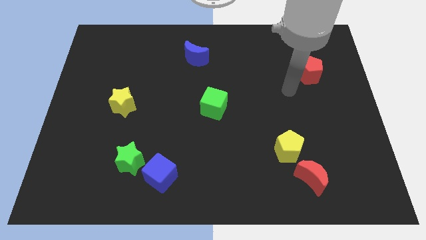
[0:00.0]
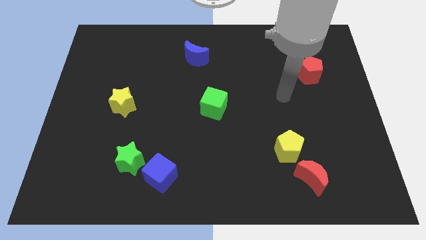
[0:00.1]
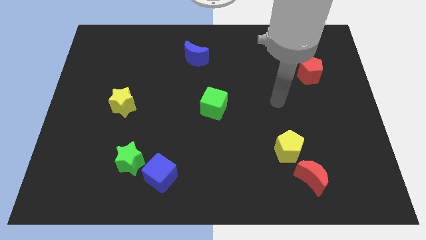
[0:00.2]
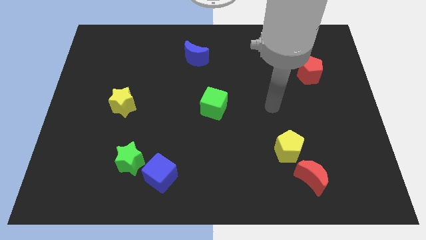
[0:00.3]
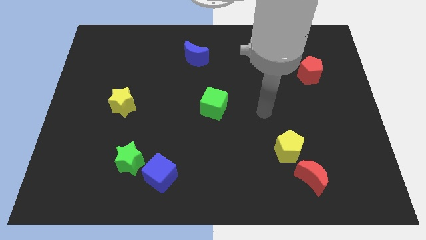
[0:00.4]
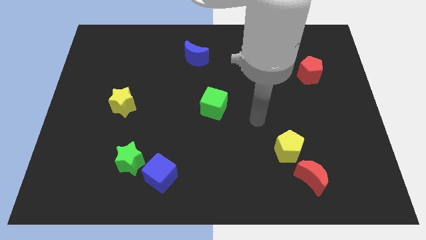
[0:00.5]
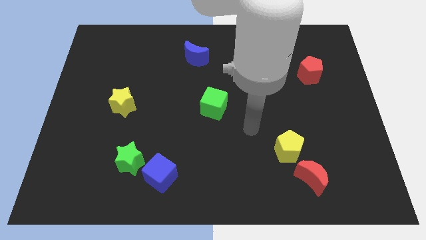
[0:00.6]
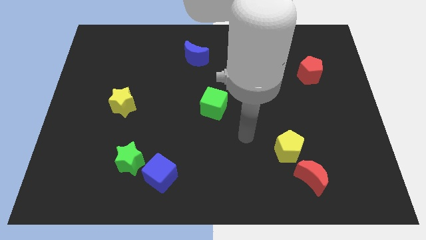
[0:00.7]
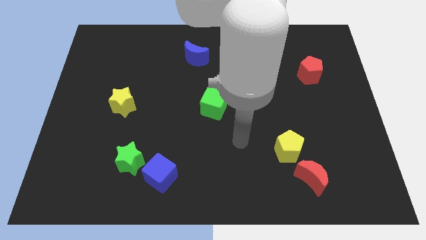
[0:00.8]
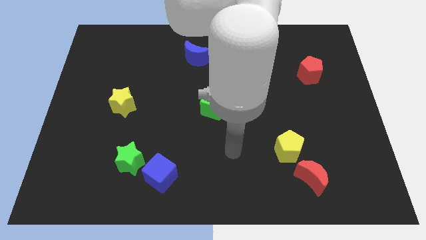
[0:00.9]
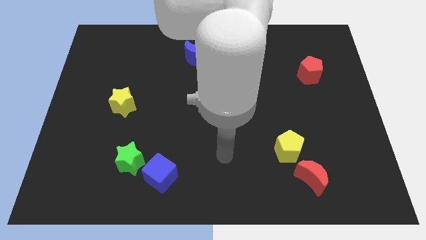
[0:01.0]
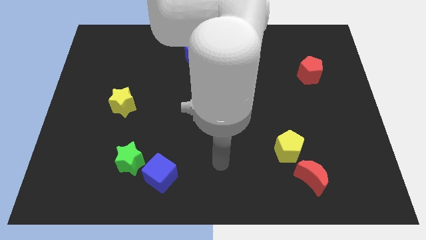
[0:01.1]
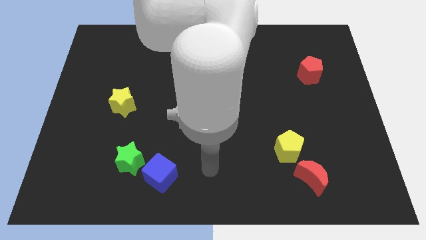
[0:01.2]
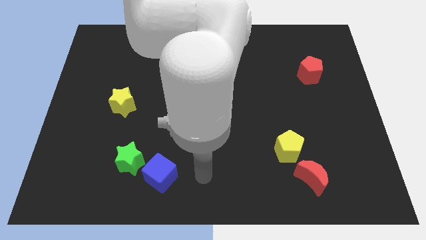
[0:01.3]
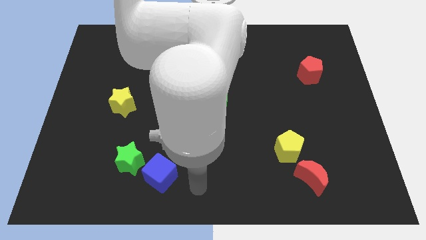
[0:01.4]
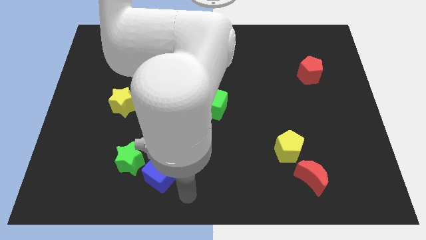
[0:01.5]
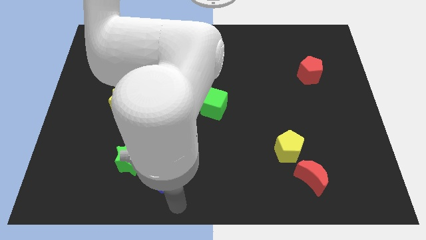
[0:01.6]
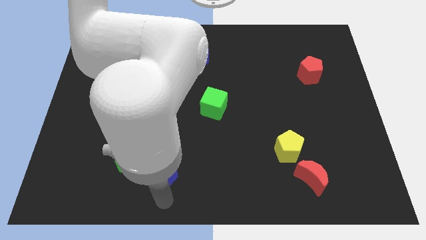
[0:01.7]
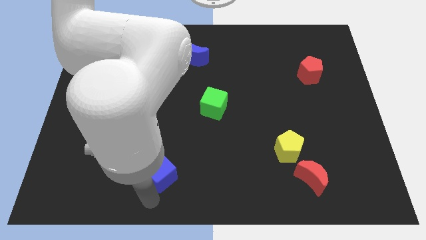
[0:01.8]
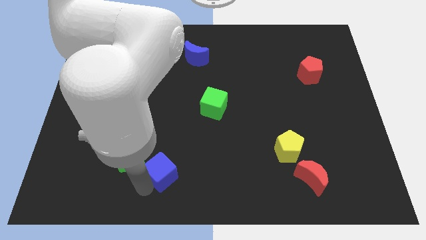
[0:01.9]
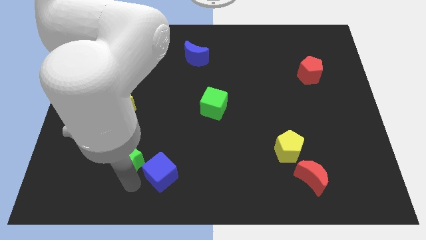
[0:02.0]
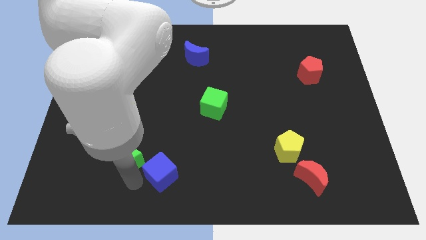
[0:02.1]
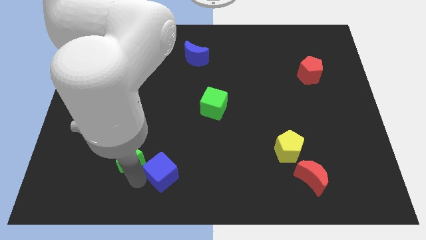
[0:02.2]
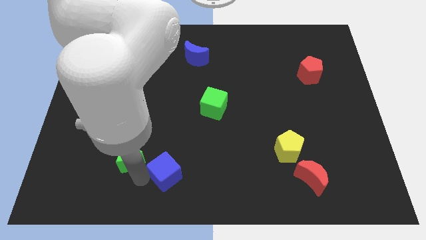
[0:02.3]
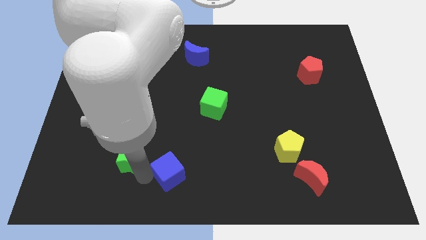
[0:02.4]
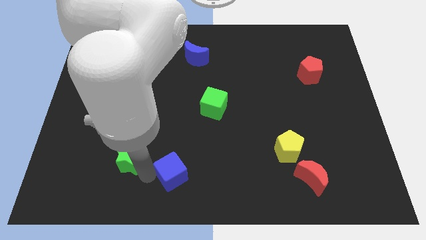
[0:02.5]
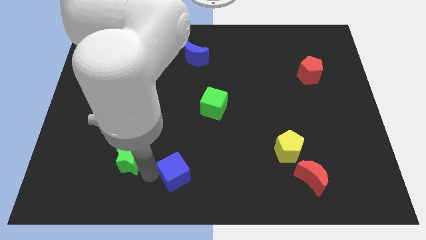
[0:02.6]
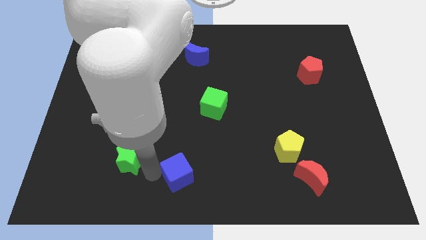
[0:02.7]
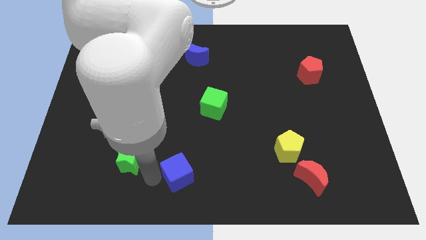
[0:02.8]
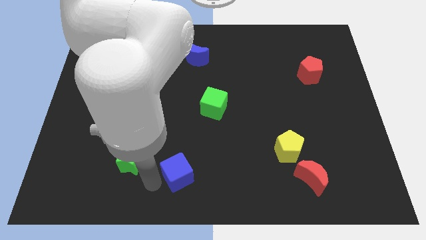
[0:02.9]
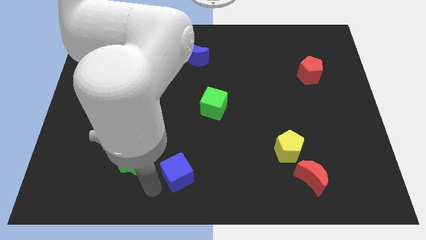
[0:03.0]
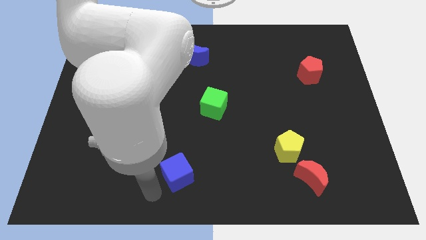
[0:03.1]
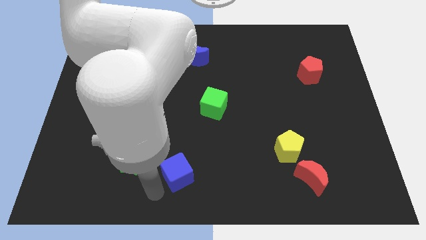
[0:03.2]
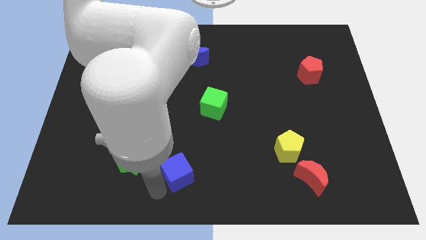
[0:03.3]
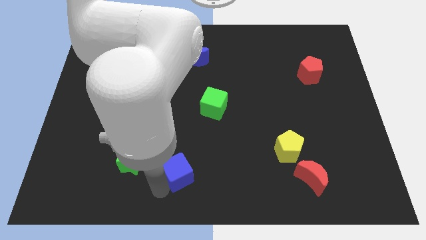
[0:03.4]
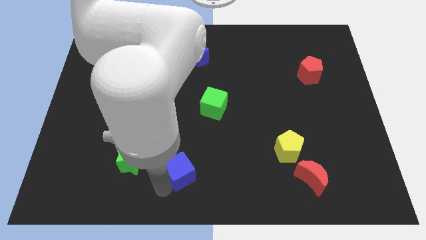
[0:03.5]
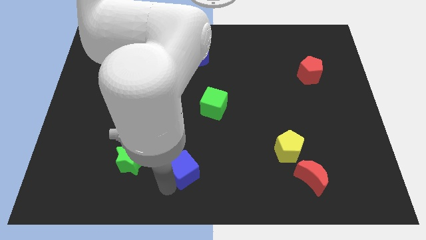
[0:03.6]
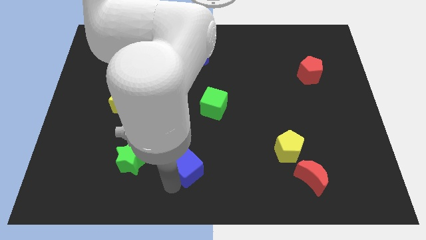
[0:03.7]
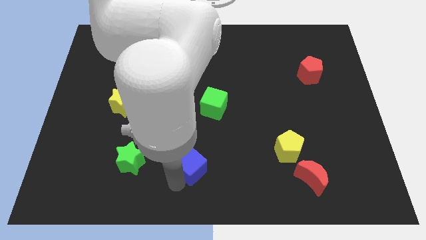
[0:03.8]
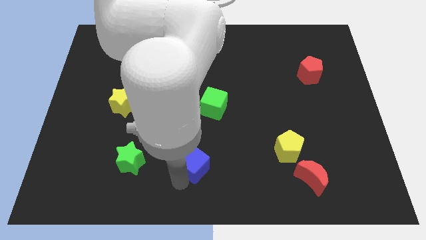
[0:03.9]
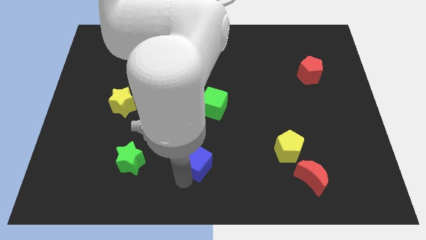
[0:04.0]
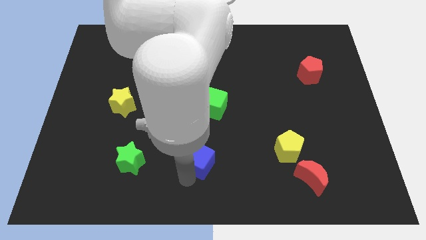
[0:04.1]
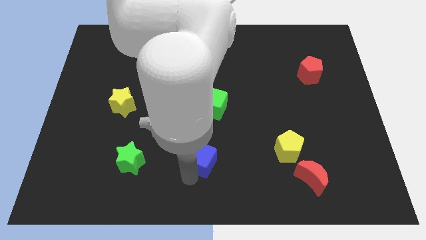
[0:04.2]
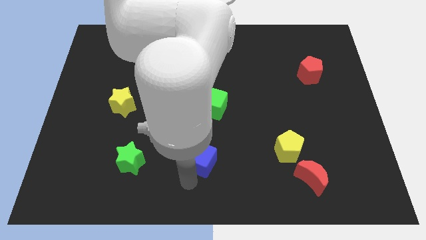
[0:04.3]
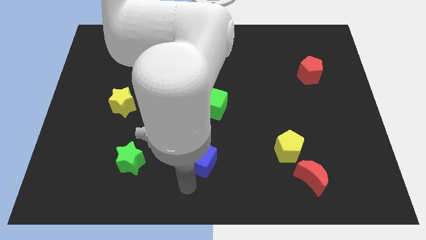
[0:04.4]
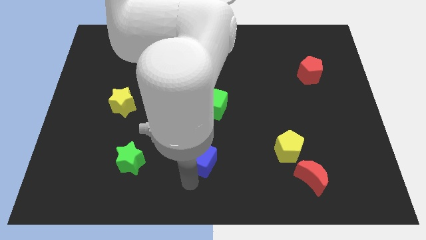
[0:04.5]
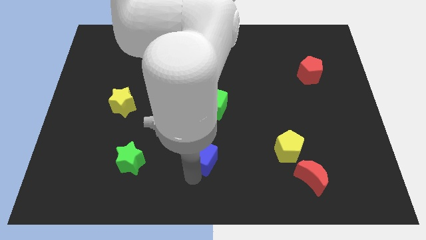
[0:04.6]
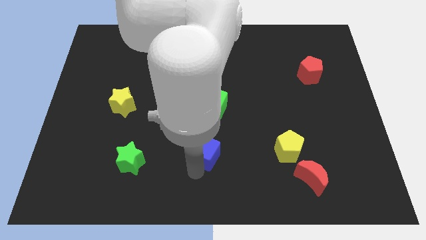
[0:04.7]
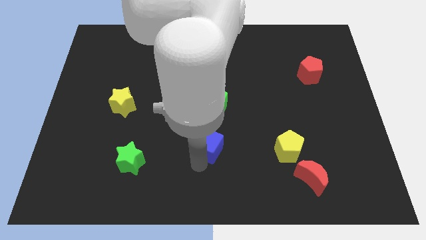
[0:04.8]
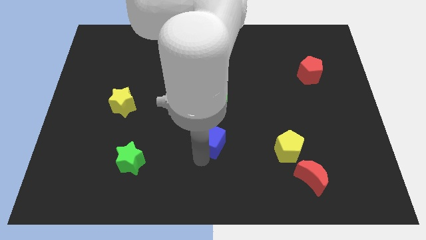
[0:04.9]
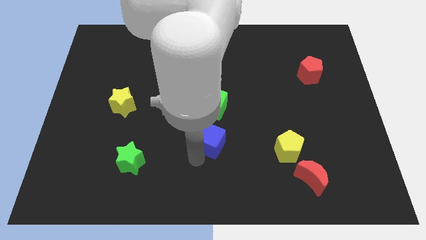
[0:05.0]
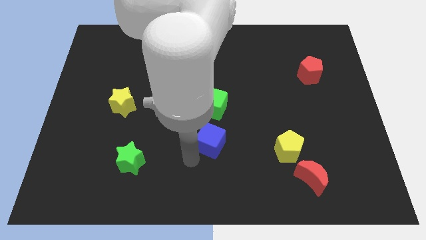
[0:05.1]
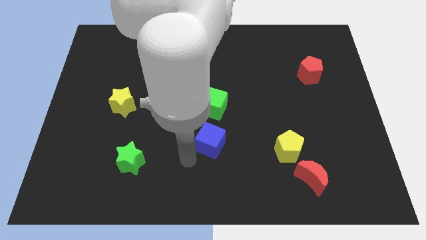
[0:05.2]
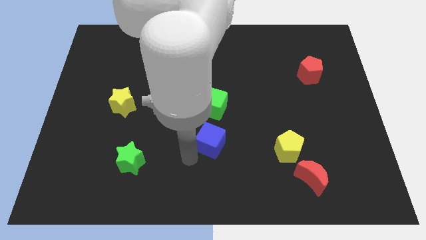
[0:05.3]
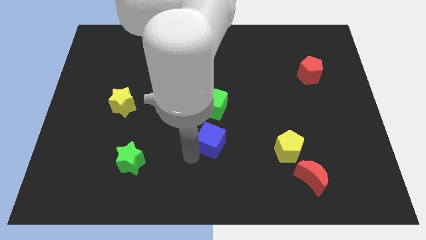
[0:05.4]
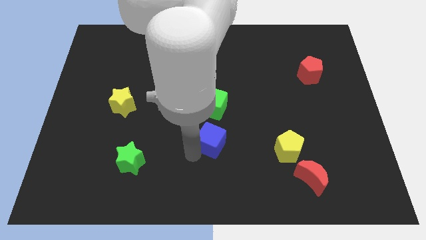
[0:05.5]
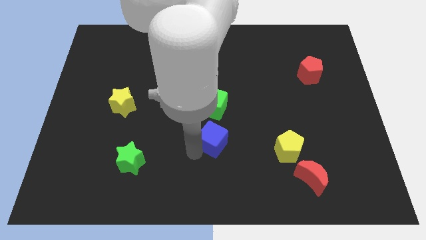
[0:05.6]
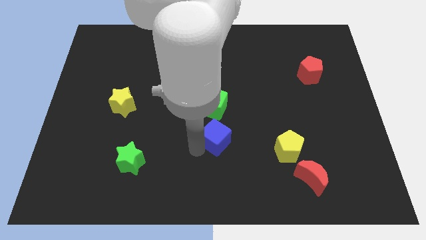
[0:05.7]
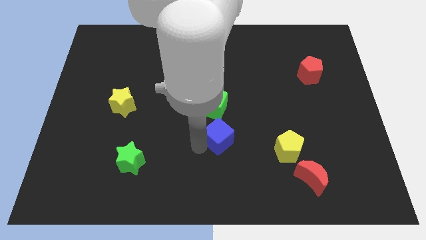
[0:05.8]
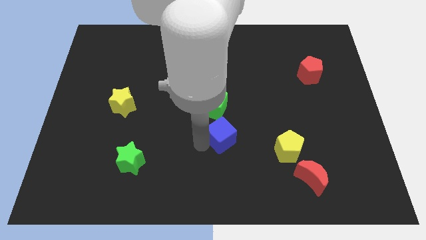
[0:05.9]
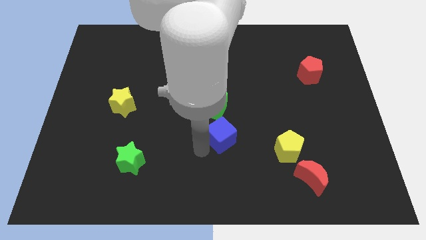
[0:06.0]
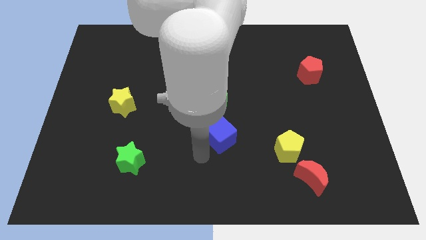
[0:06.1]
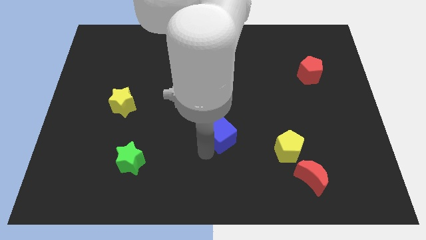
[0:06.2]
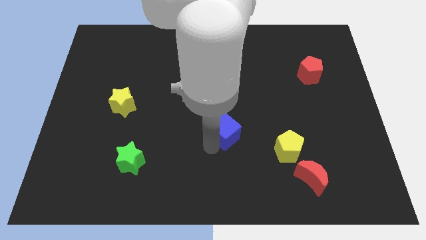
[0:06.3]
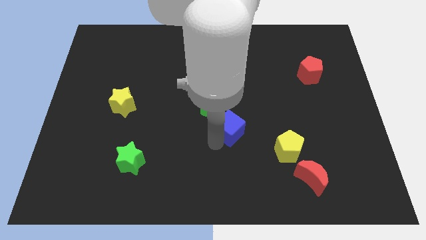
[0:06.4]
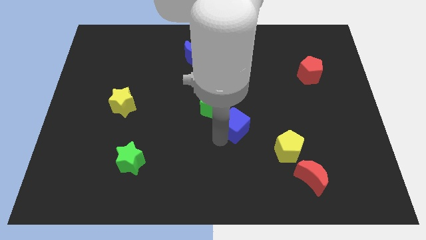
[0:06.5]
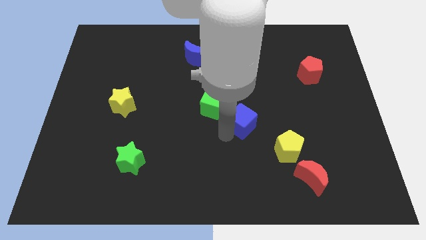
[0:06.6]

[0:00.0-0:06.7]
push the blue cube diagonally up and right

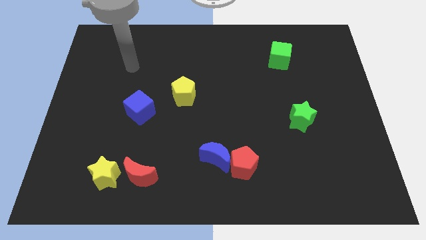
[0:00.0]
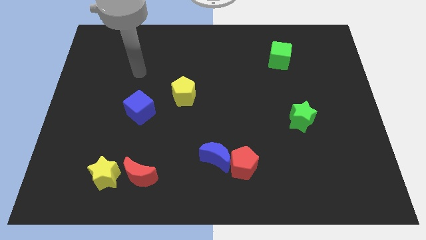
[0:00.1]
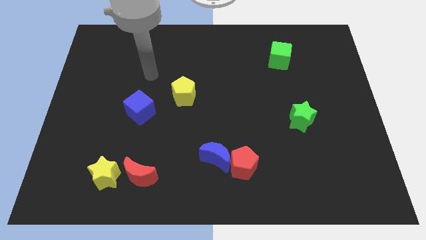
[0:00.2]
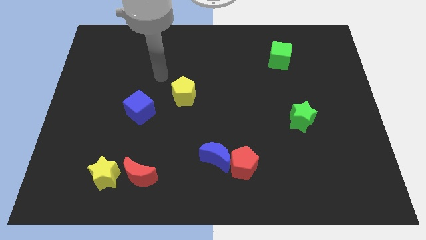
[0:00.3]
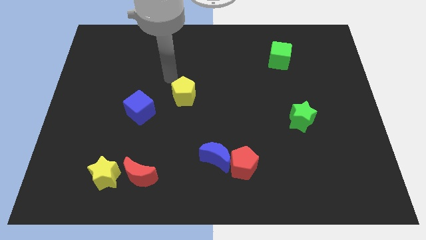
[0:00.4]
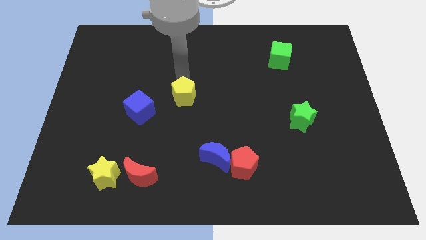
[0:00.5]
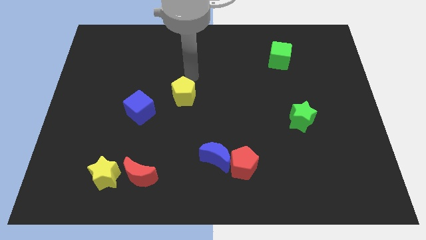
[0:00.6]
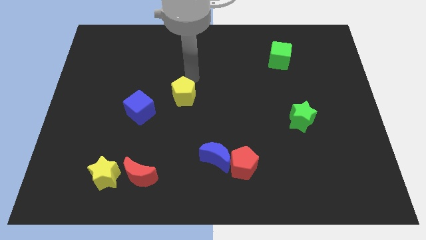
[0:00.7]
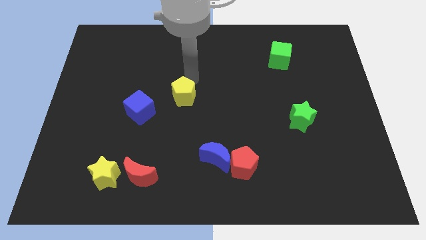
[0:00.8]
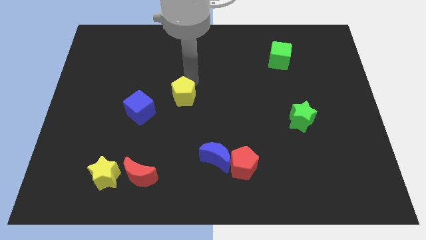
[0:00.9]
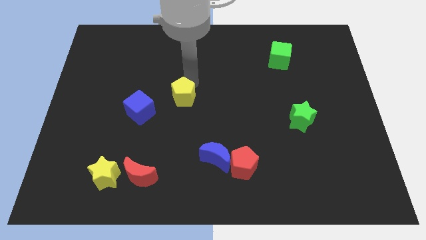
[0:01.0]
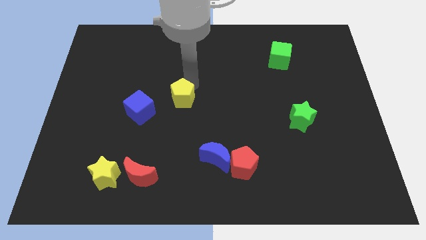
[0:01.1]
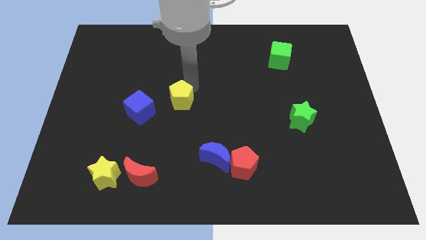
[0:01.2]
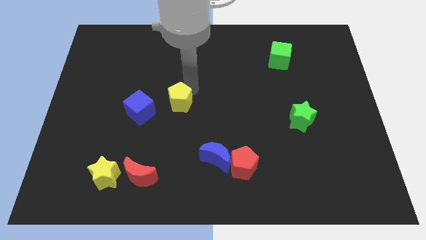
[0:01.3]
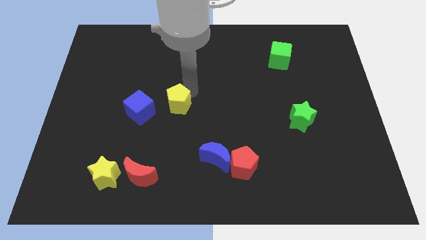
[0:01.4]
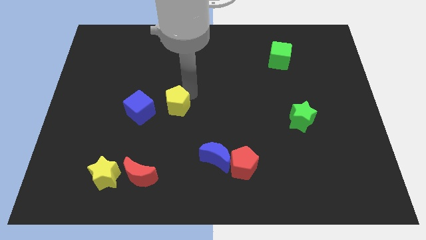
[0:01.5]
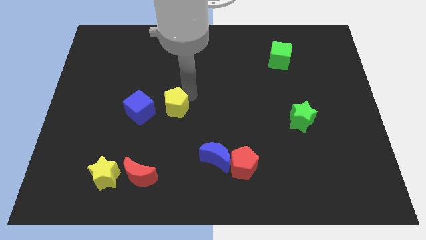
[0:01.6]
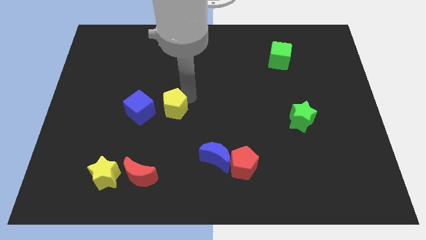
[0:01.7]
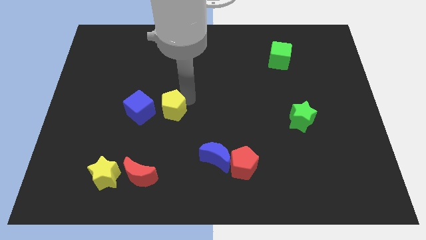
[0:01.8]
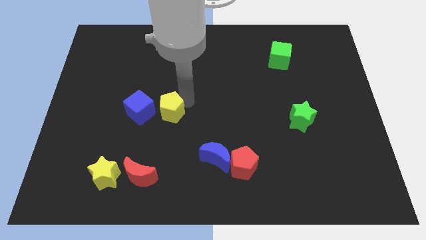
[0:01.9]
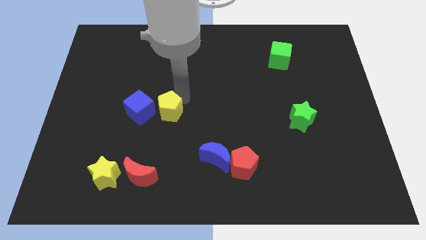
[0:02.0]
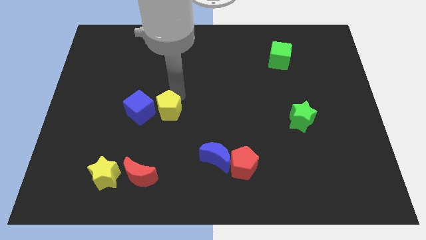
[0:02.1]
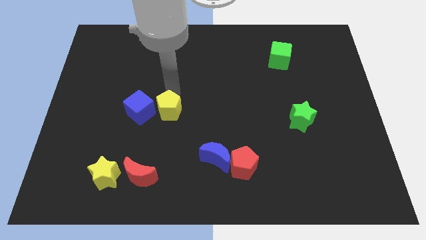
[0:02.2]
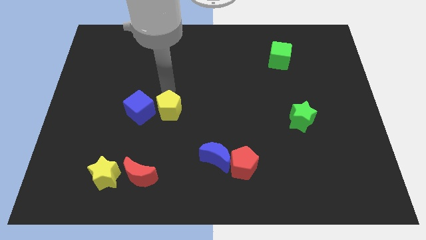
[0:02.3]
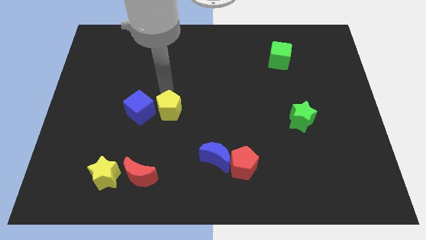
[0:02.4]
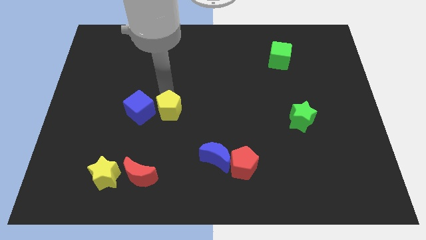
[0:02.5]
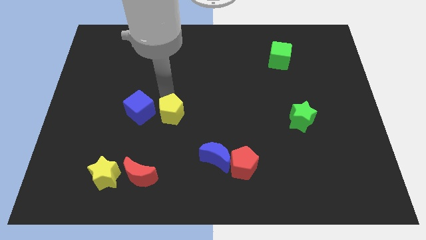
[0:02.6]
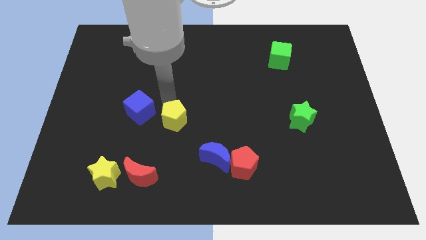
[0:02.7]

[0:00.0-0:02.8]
slide the yellow pentagon somewhat downwards
